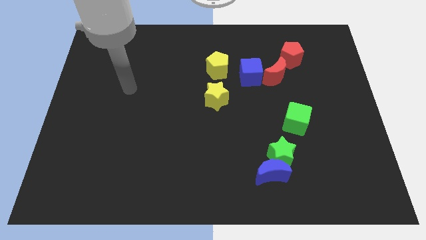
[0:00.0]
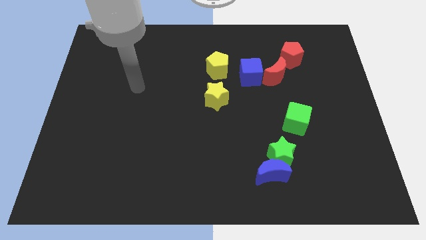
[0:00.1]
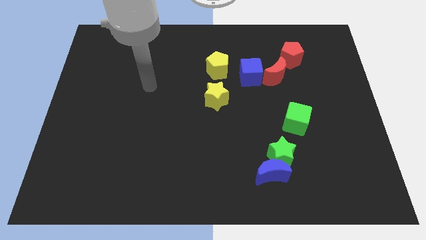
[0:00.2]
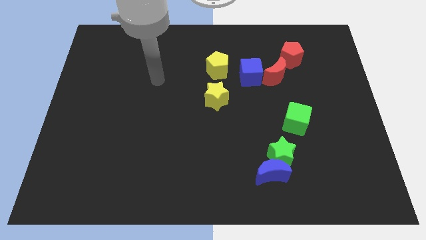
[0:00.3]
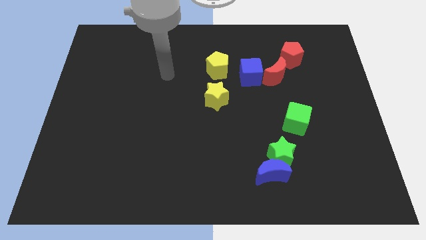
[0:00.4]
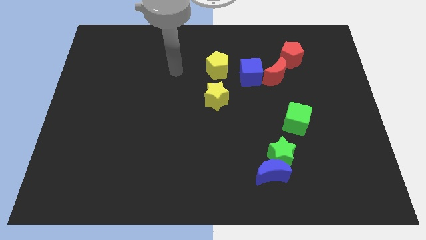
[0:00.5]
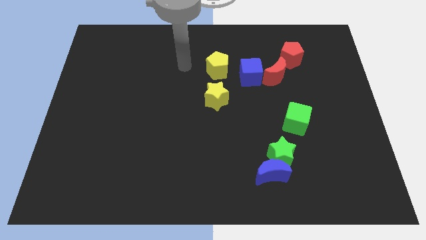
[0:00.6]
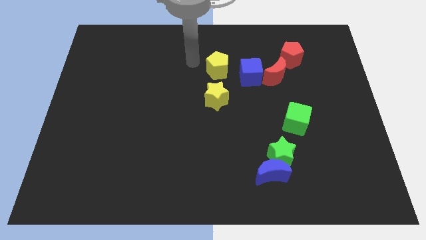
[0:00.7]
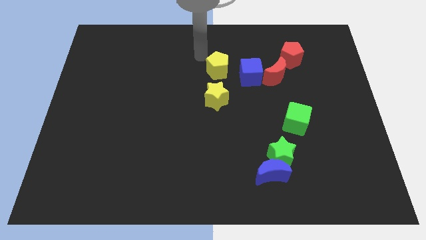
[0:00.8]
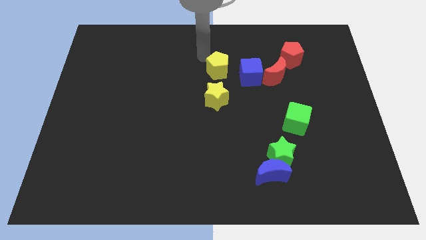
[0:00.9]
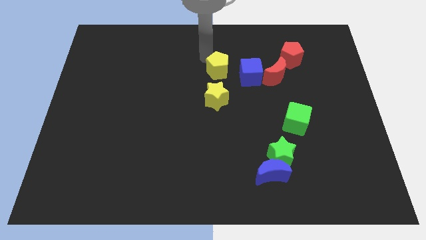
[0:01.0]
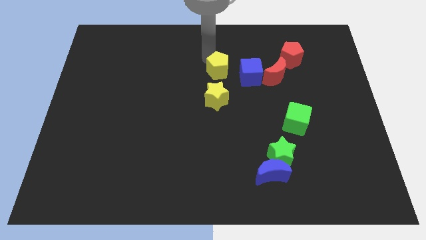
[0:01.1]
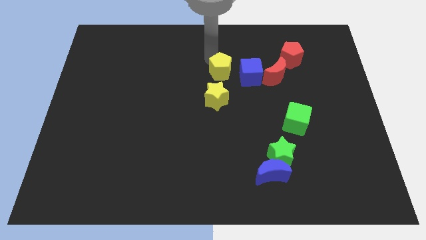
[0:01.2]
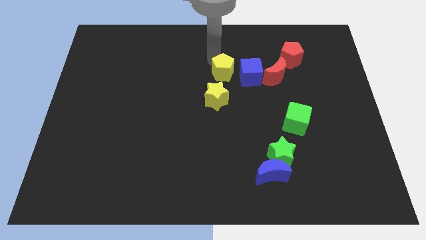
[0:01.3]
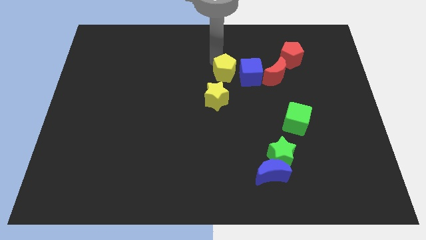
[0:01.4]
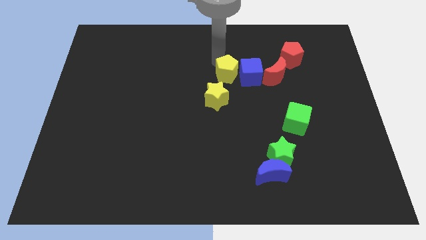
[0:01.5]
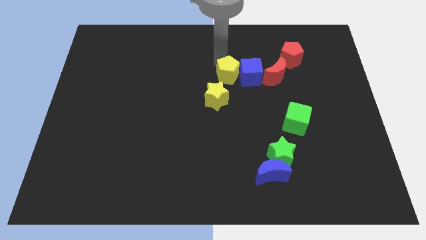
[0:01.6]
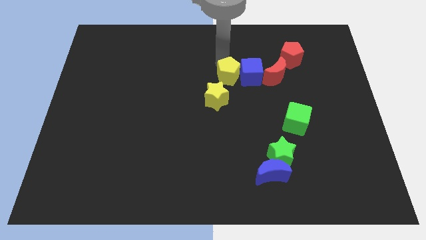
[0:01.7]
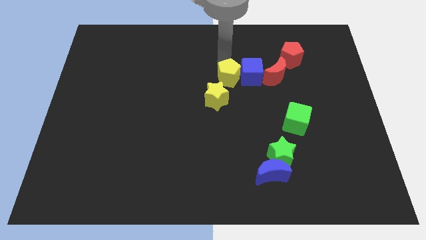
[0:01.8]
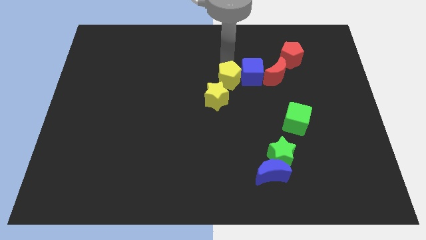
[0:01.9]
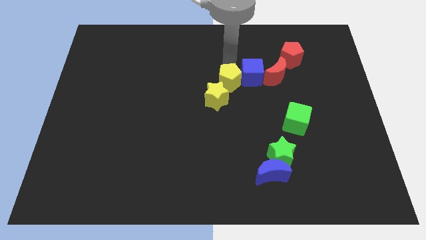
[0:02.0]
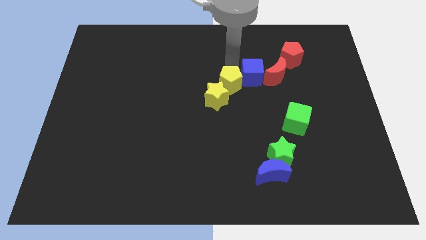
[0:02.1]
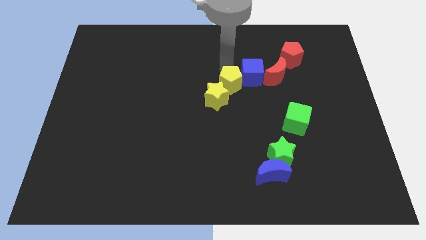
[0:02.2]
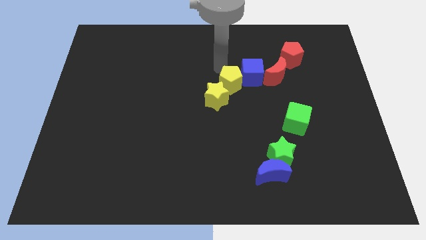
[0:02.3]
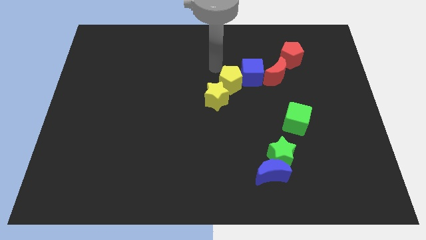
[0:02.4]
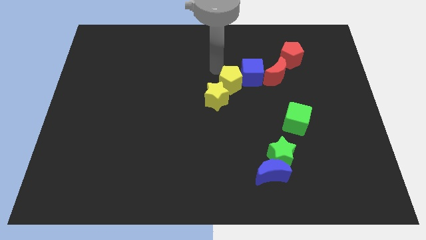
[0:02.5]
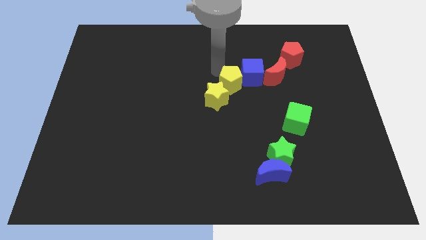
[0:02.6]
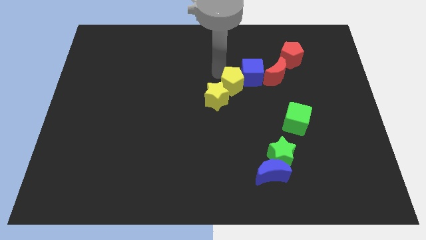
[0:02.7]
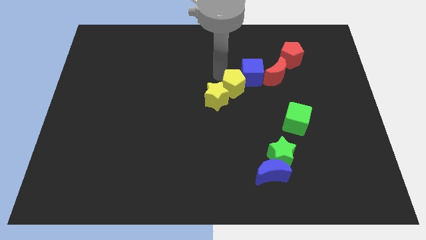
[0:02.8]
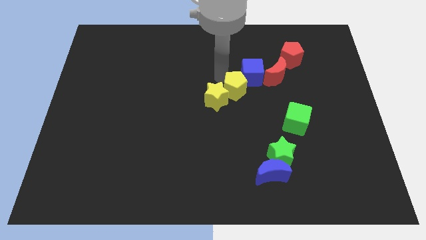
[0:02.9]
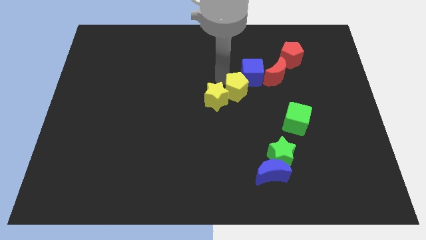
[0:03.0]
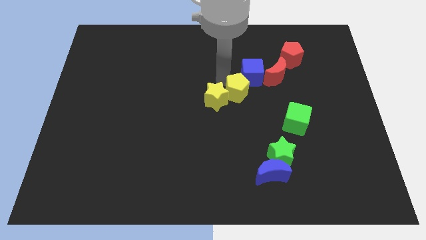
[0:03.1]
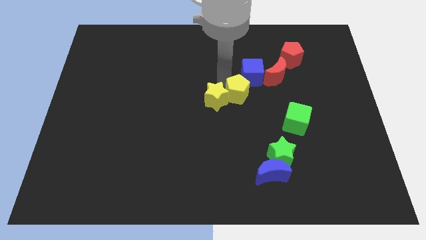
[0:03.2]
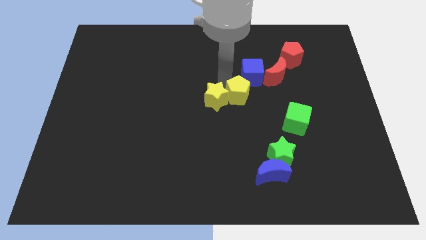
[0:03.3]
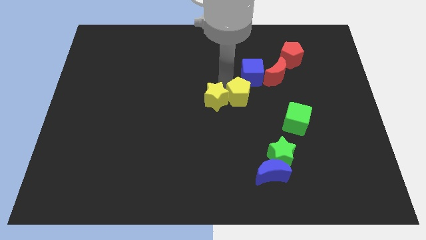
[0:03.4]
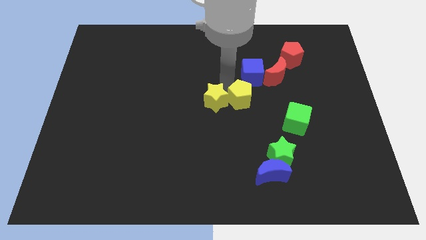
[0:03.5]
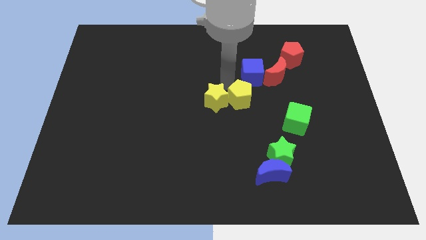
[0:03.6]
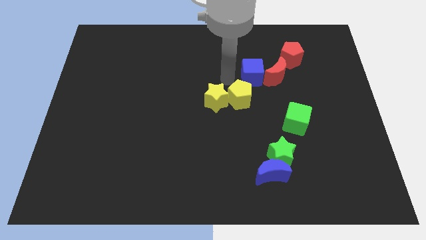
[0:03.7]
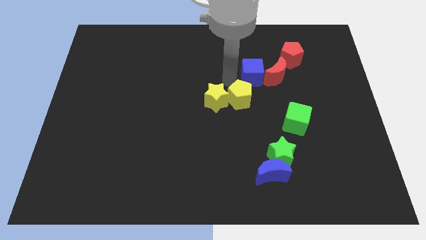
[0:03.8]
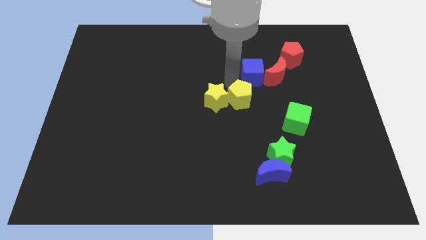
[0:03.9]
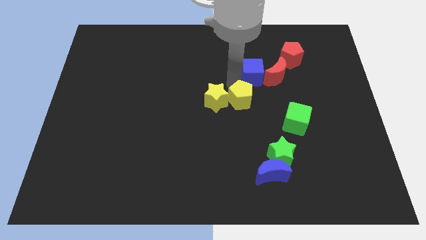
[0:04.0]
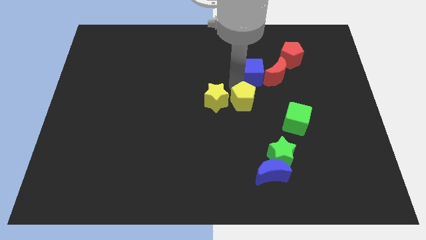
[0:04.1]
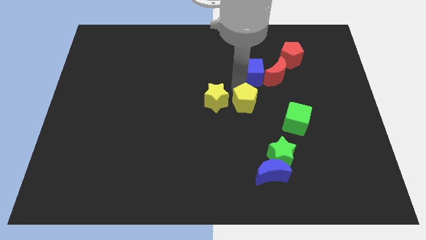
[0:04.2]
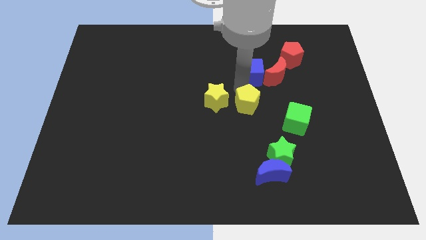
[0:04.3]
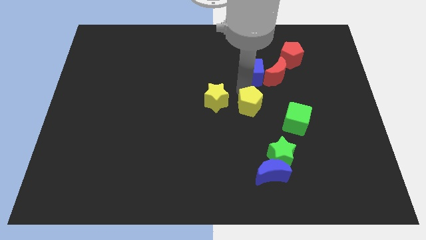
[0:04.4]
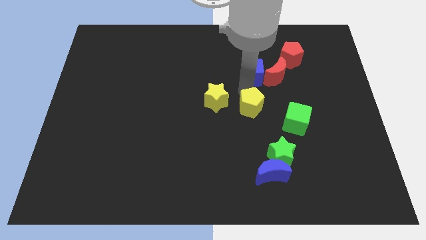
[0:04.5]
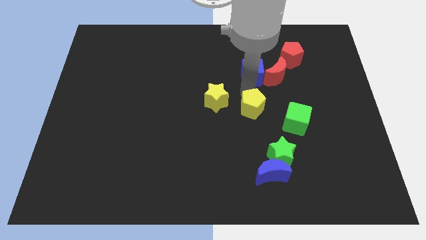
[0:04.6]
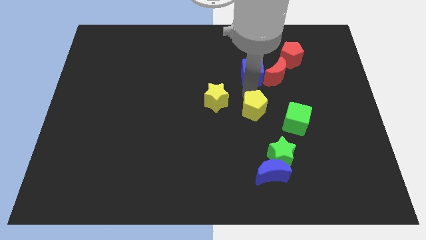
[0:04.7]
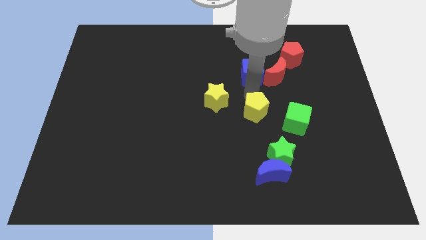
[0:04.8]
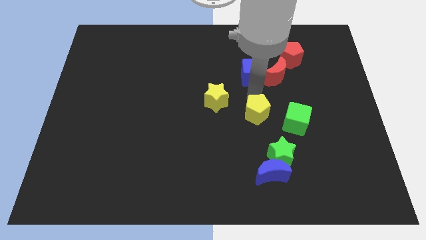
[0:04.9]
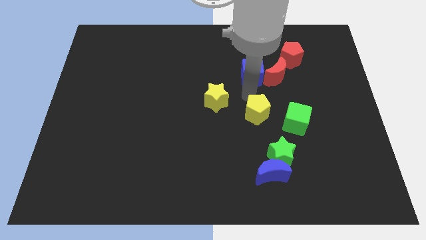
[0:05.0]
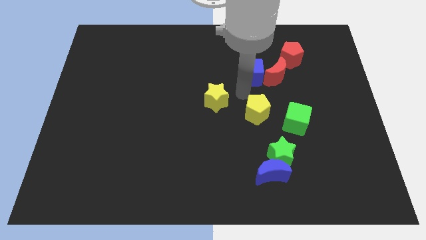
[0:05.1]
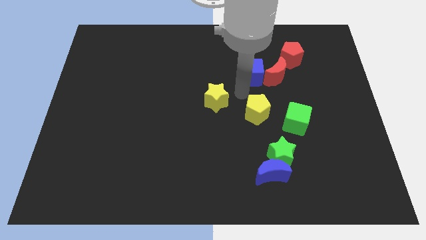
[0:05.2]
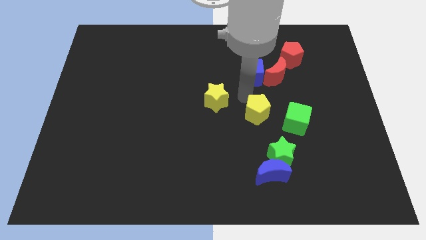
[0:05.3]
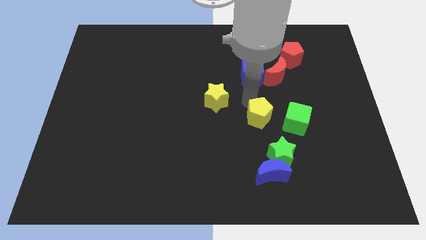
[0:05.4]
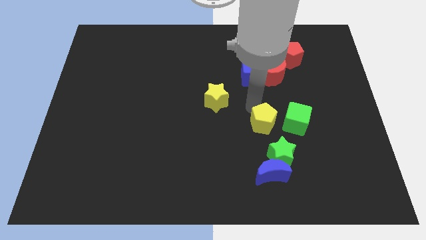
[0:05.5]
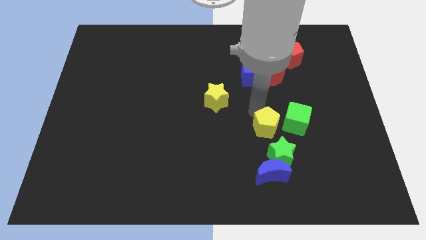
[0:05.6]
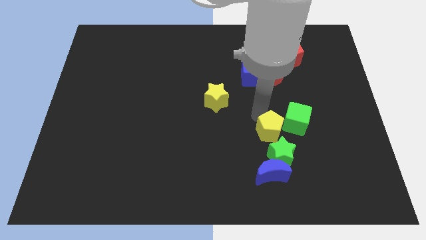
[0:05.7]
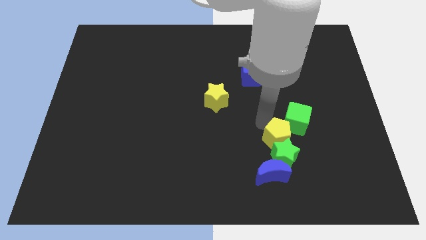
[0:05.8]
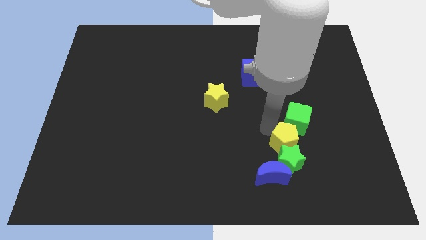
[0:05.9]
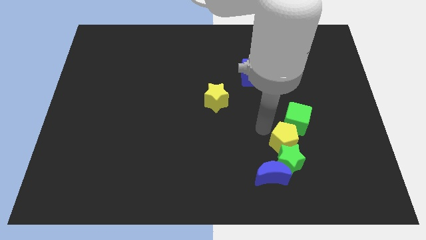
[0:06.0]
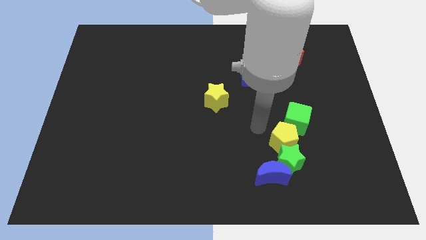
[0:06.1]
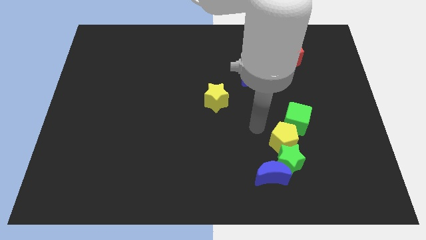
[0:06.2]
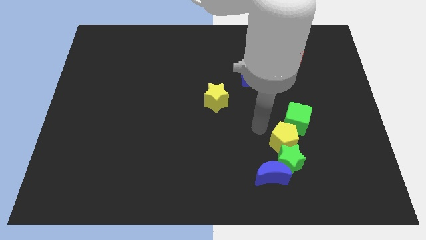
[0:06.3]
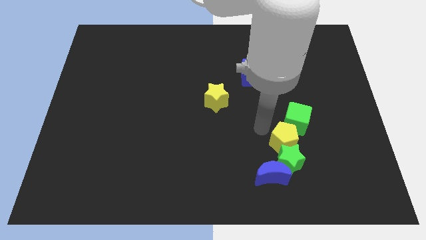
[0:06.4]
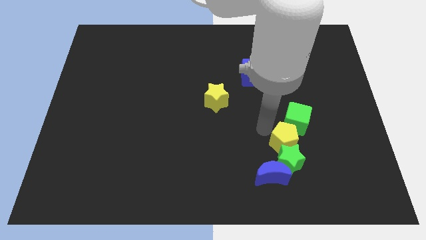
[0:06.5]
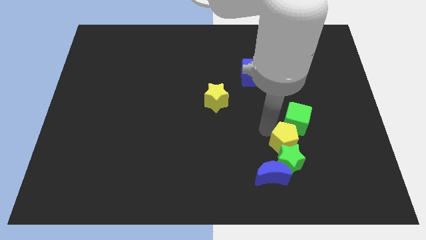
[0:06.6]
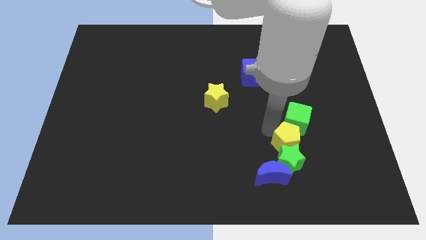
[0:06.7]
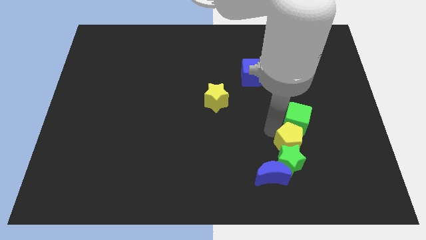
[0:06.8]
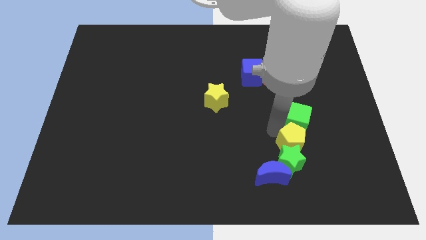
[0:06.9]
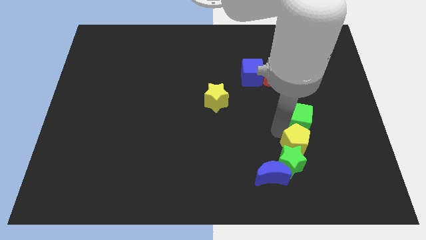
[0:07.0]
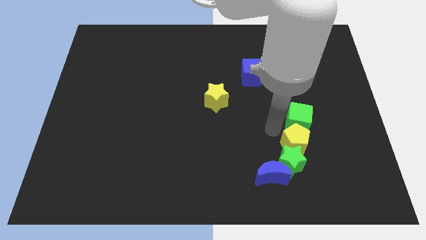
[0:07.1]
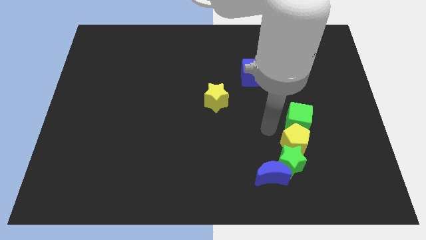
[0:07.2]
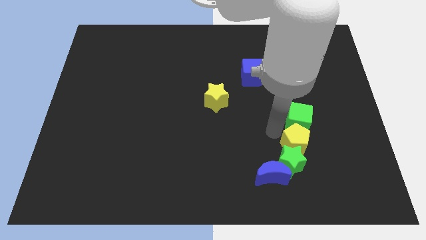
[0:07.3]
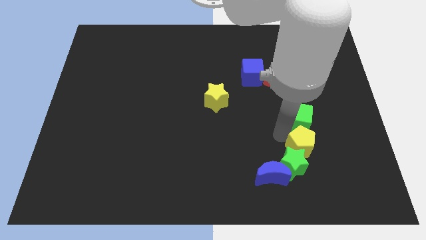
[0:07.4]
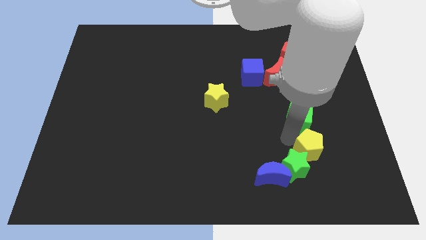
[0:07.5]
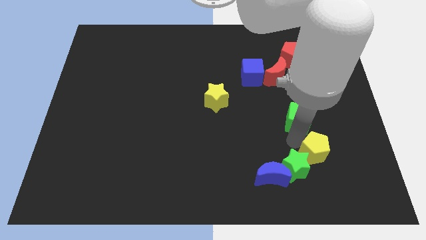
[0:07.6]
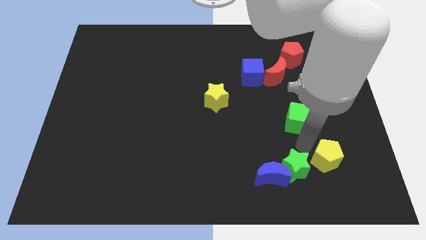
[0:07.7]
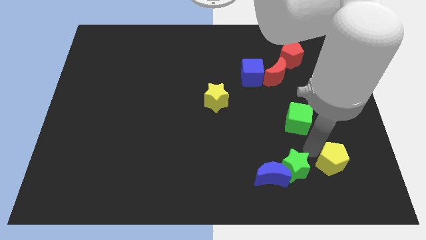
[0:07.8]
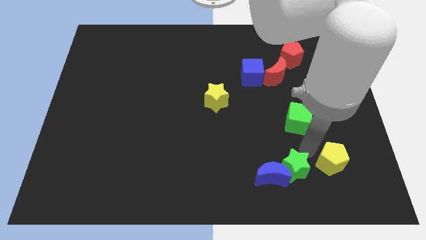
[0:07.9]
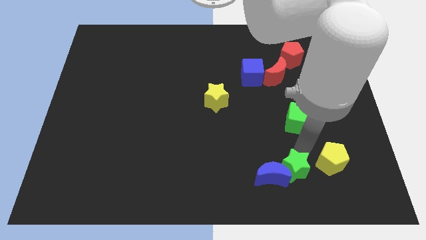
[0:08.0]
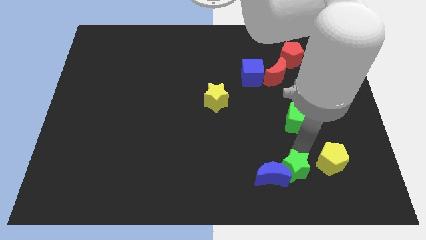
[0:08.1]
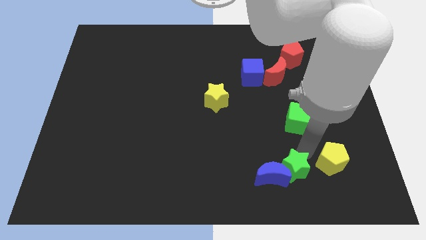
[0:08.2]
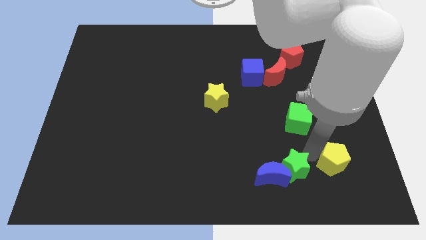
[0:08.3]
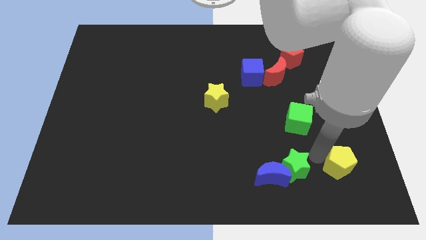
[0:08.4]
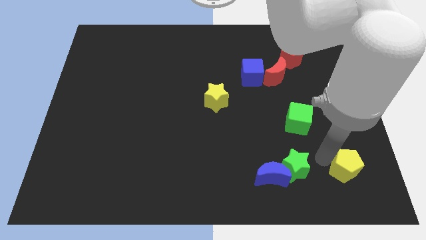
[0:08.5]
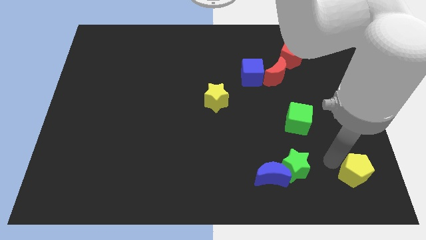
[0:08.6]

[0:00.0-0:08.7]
move the yellow pentagon to the bottom right corner
